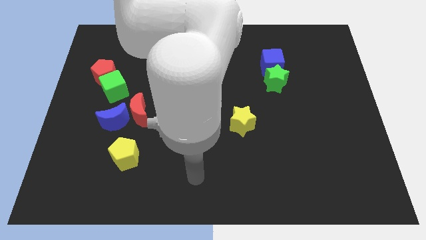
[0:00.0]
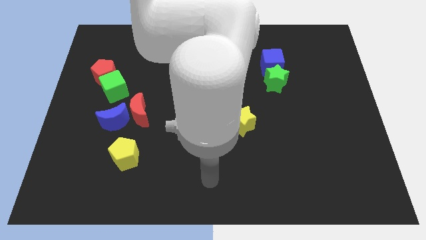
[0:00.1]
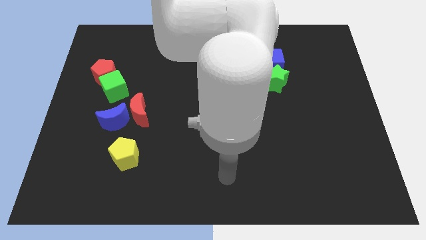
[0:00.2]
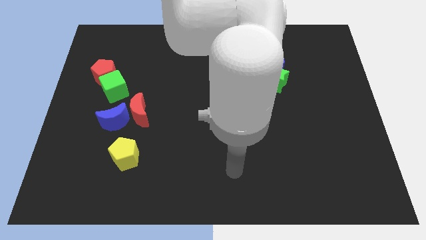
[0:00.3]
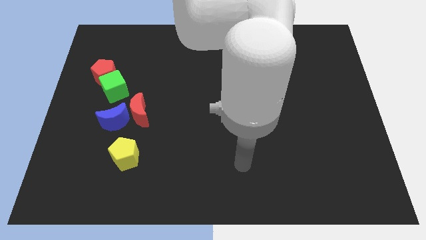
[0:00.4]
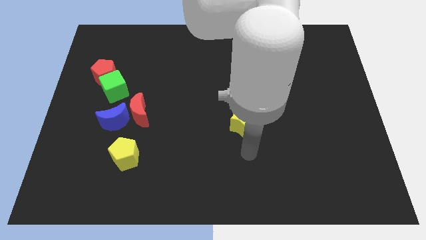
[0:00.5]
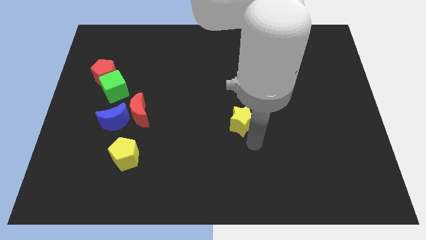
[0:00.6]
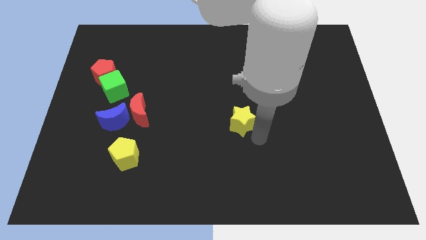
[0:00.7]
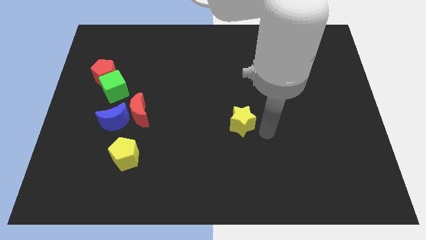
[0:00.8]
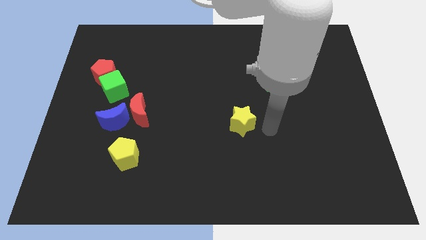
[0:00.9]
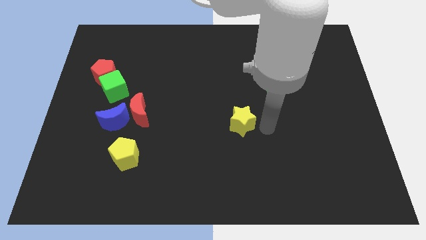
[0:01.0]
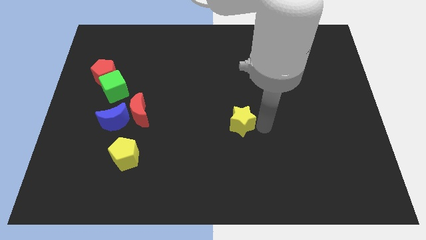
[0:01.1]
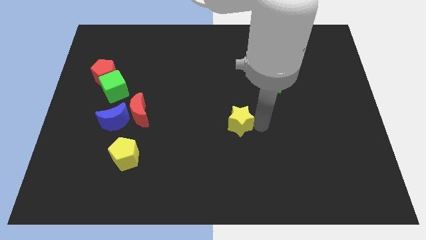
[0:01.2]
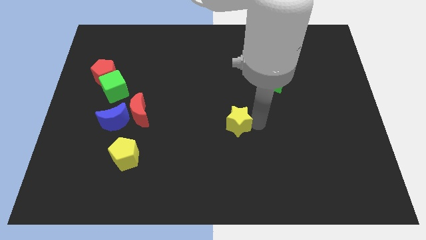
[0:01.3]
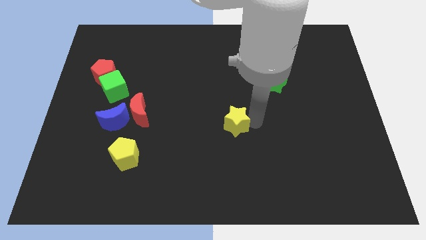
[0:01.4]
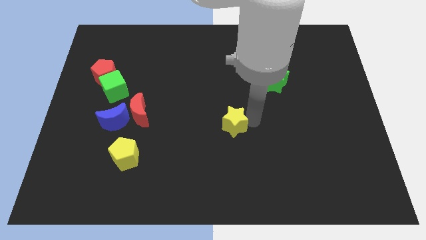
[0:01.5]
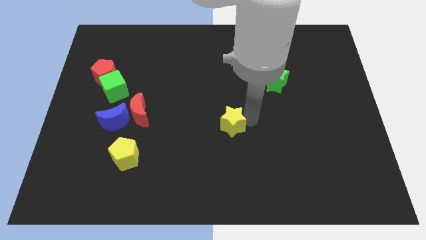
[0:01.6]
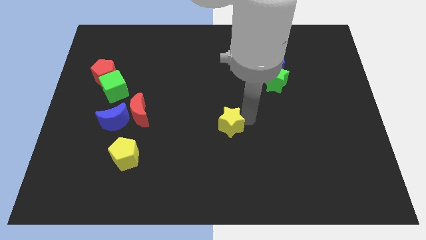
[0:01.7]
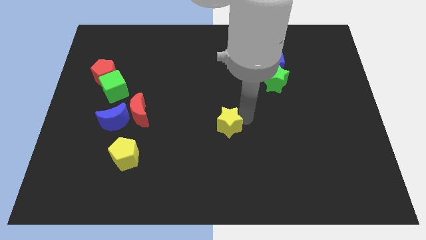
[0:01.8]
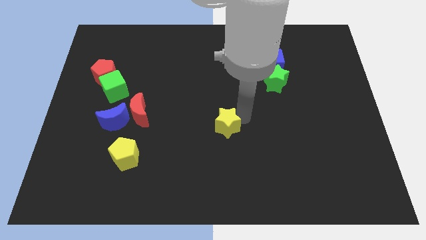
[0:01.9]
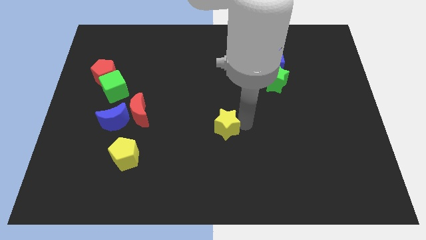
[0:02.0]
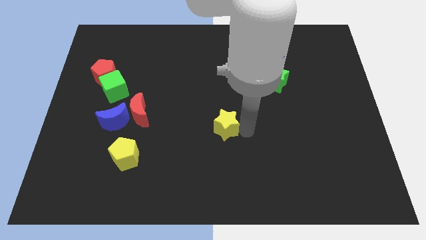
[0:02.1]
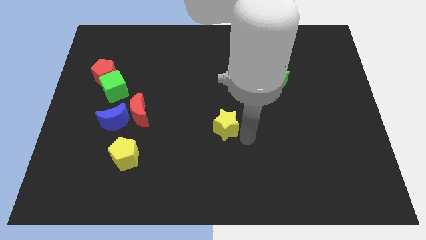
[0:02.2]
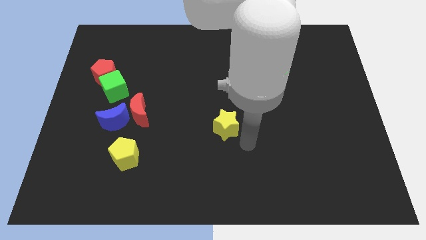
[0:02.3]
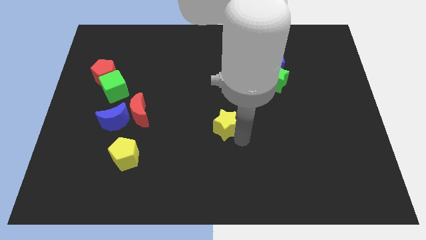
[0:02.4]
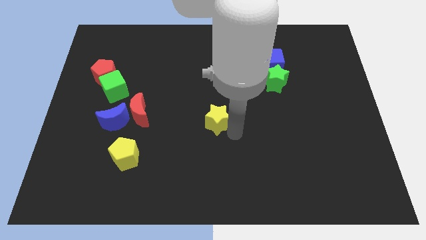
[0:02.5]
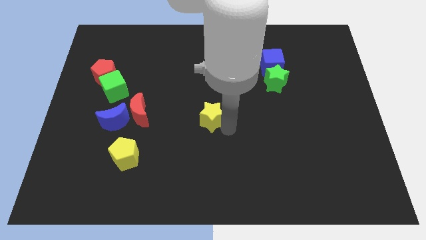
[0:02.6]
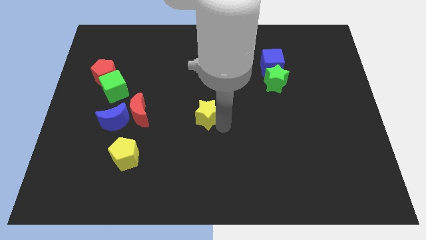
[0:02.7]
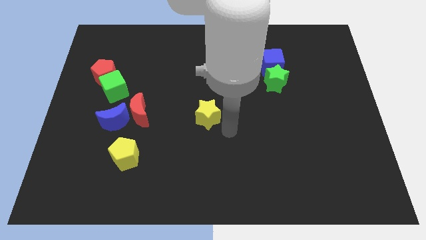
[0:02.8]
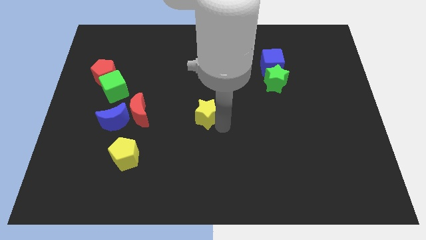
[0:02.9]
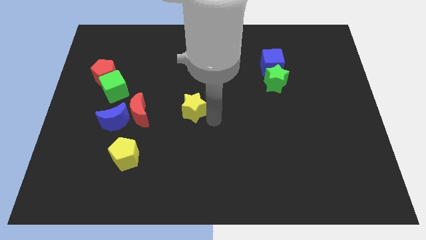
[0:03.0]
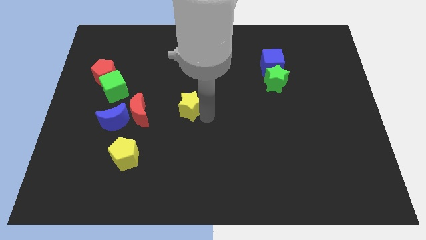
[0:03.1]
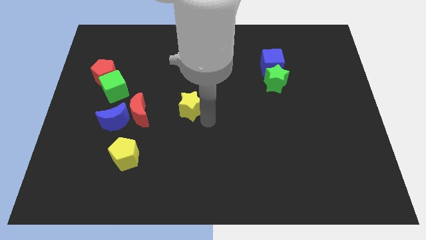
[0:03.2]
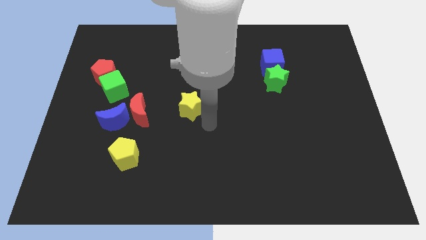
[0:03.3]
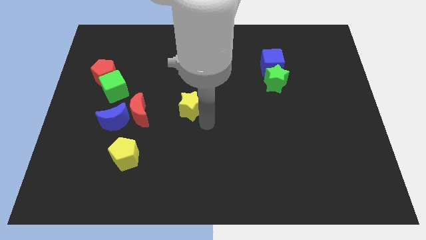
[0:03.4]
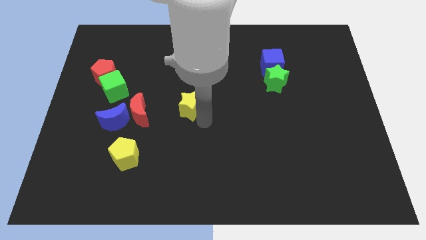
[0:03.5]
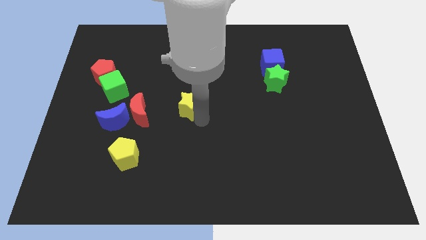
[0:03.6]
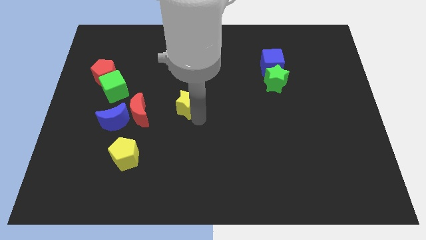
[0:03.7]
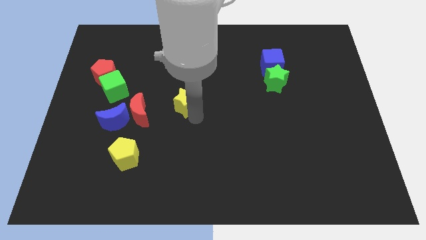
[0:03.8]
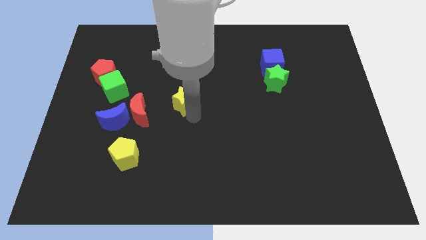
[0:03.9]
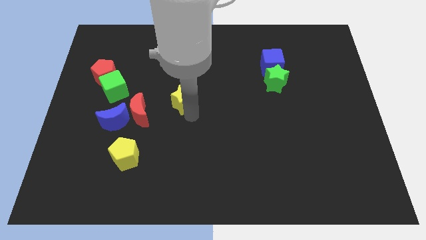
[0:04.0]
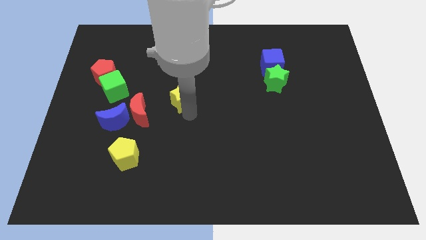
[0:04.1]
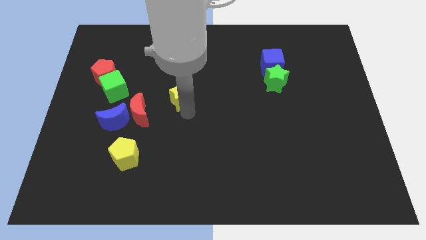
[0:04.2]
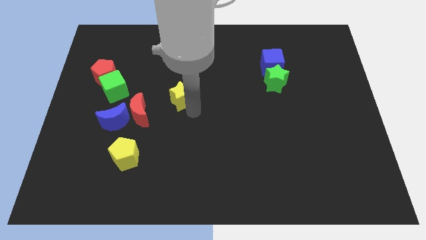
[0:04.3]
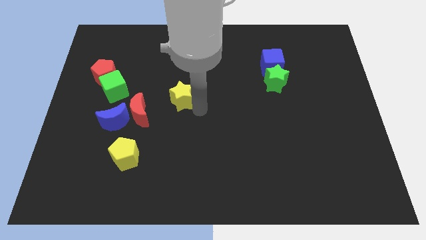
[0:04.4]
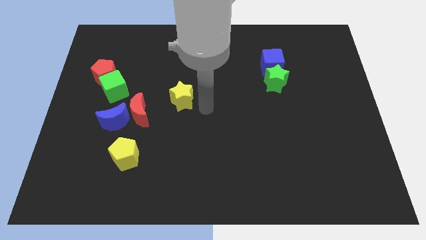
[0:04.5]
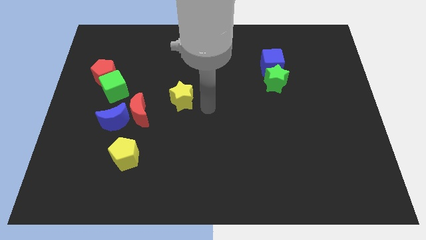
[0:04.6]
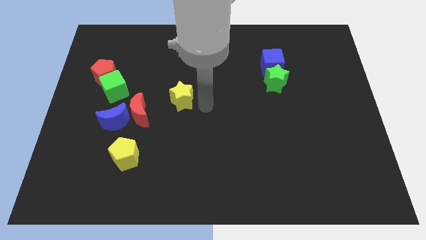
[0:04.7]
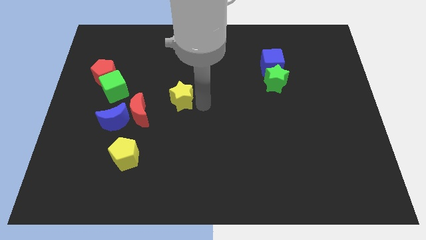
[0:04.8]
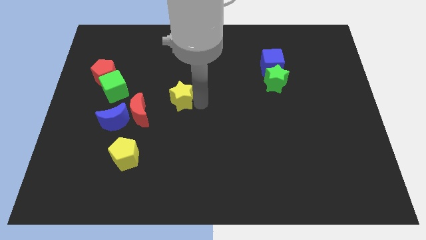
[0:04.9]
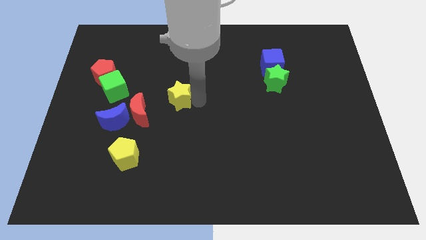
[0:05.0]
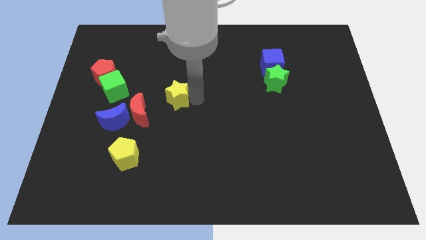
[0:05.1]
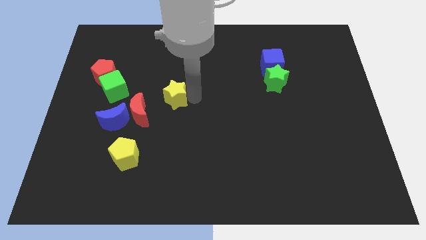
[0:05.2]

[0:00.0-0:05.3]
push the yellow star to the right of the green cube
